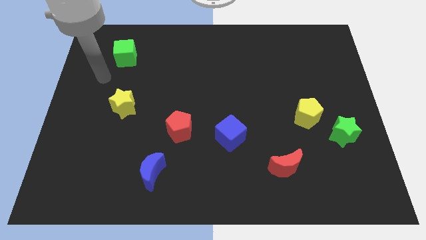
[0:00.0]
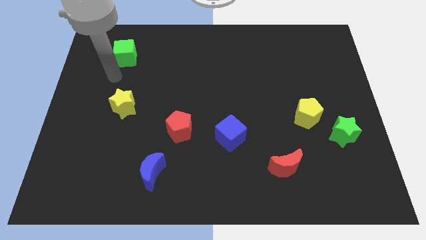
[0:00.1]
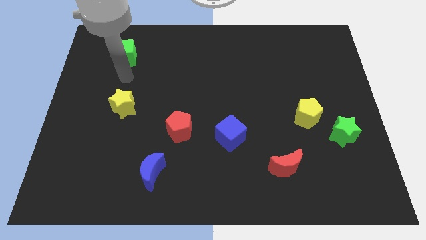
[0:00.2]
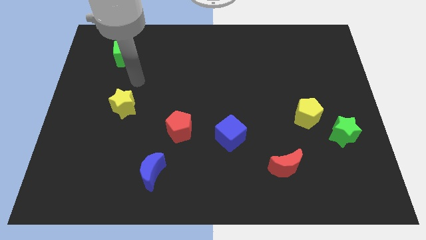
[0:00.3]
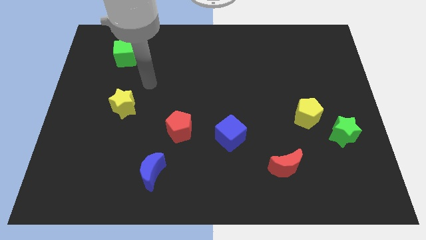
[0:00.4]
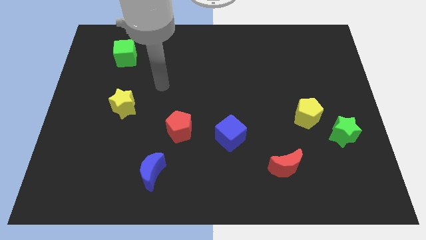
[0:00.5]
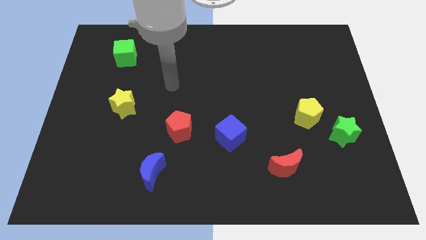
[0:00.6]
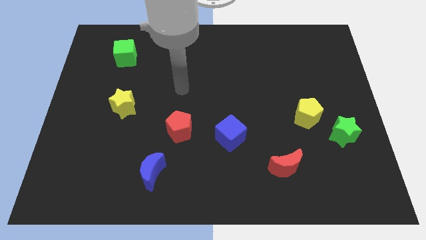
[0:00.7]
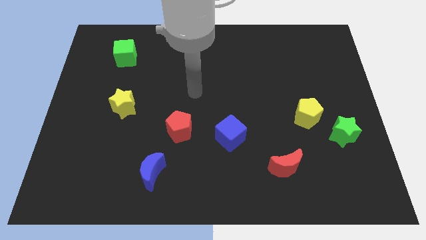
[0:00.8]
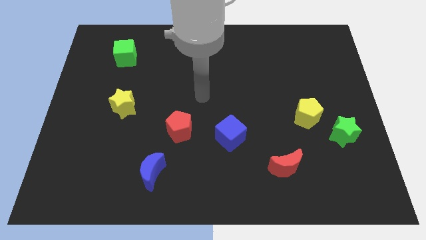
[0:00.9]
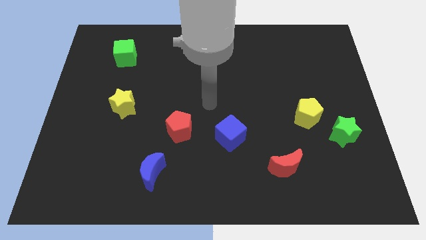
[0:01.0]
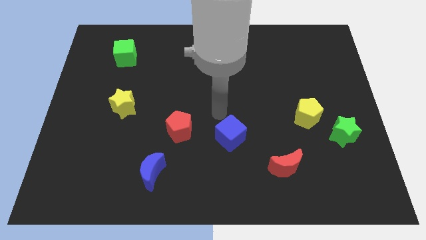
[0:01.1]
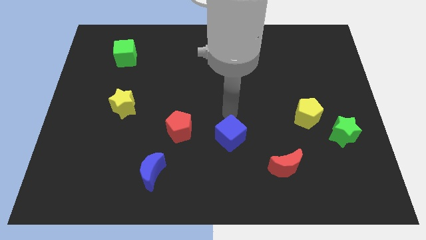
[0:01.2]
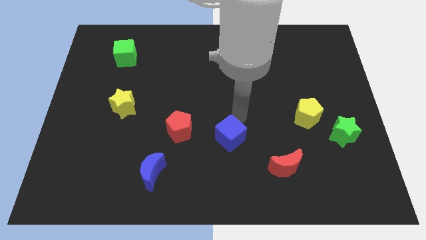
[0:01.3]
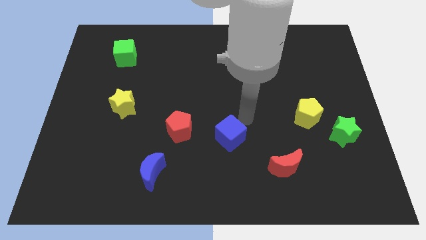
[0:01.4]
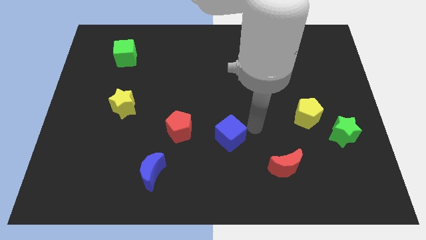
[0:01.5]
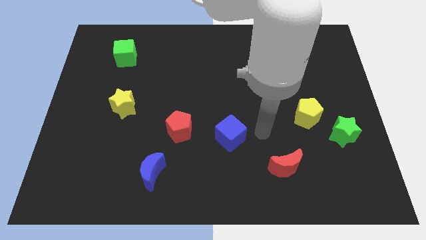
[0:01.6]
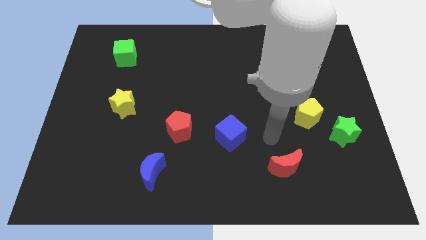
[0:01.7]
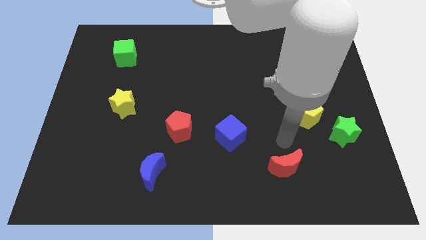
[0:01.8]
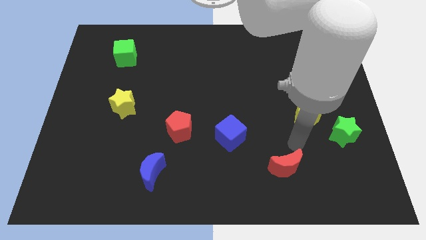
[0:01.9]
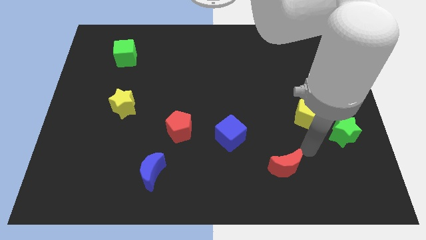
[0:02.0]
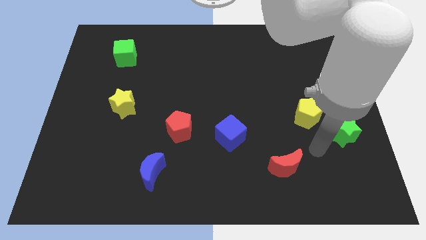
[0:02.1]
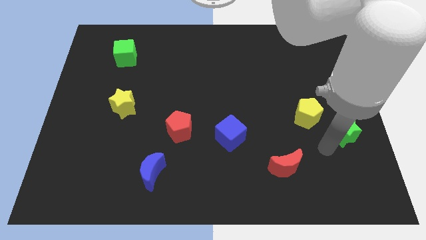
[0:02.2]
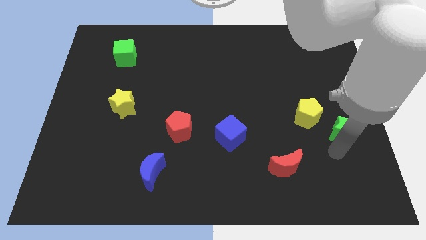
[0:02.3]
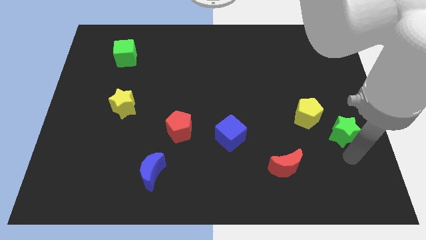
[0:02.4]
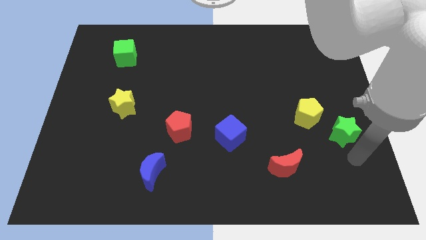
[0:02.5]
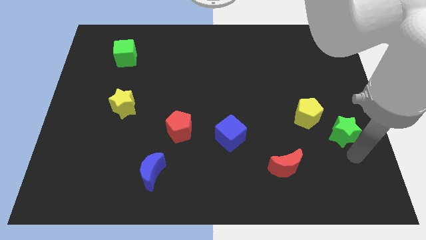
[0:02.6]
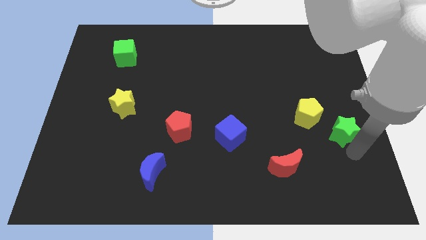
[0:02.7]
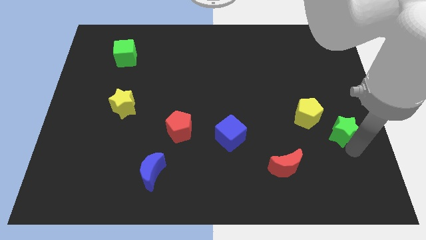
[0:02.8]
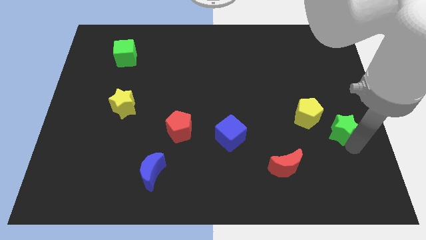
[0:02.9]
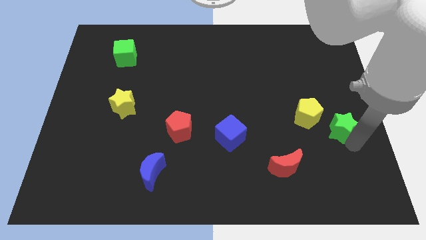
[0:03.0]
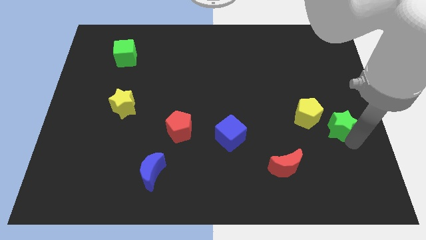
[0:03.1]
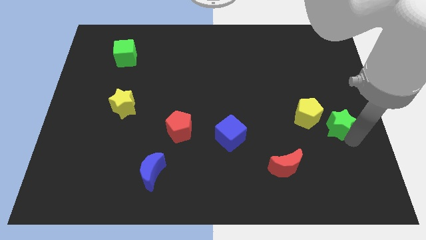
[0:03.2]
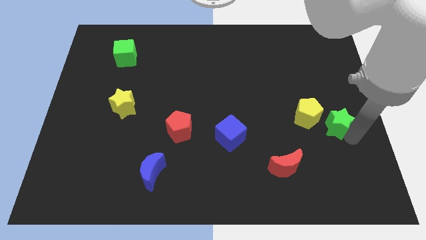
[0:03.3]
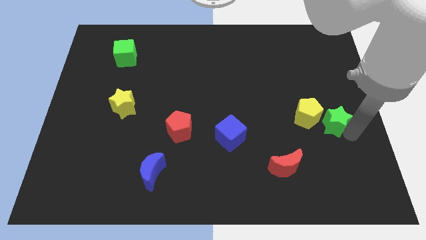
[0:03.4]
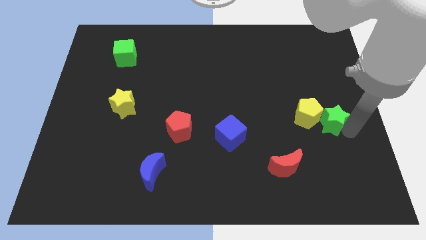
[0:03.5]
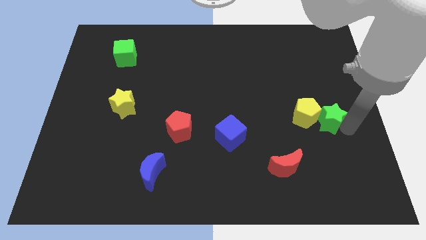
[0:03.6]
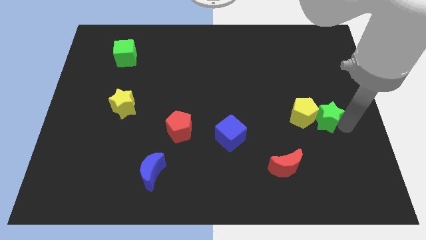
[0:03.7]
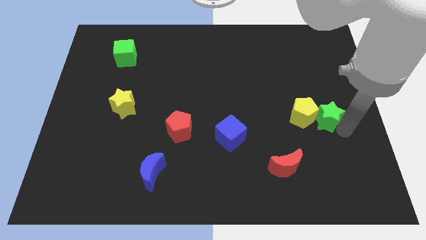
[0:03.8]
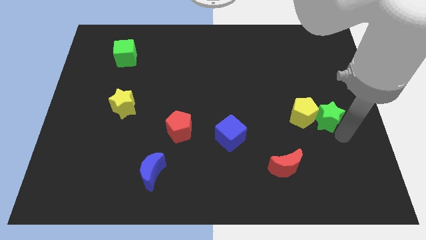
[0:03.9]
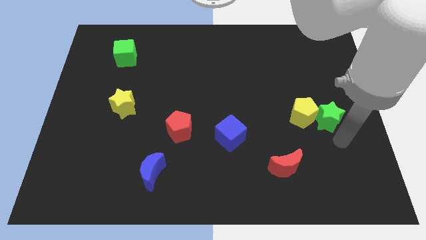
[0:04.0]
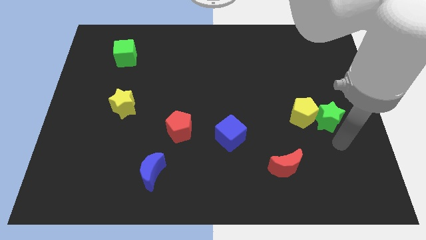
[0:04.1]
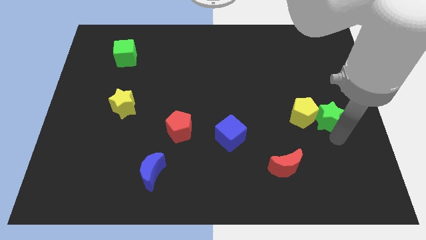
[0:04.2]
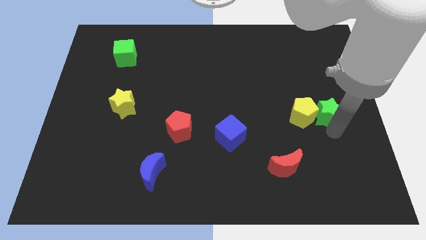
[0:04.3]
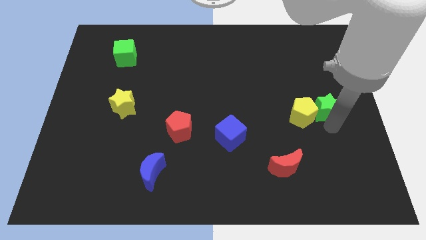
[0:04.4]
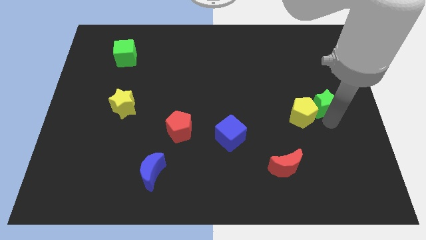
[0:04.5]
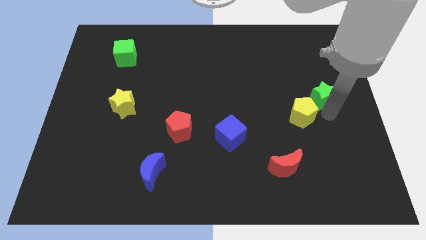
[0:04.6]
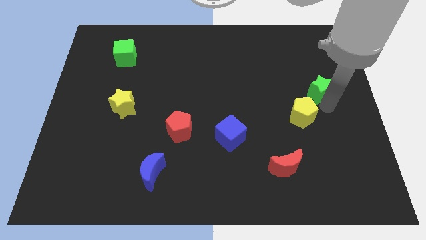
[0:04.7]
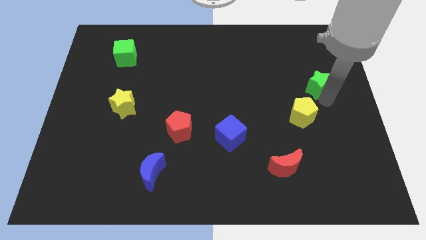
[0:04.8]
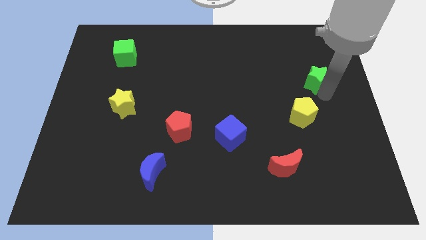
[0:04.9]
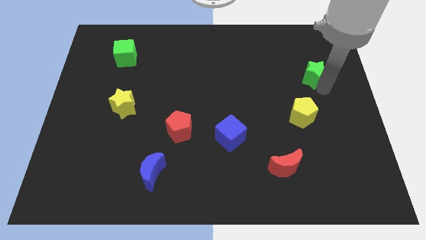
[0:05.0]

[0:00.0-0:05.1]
push the green star above the yellow pentagon

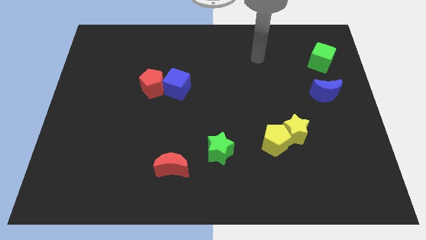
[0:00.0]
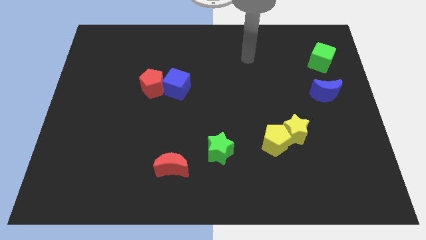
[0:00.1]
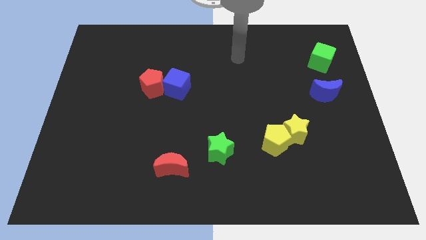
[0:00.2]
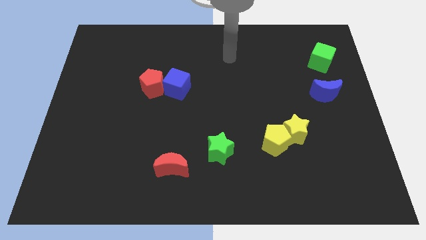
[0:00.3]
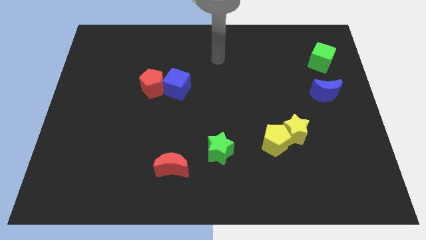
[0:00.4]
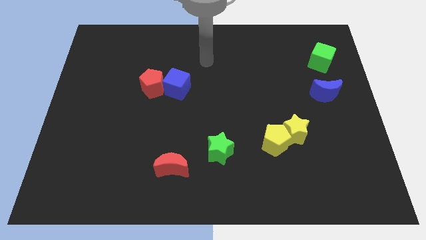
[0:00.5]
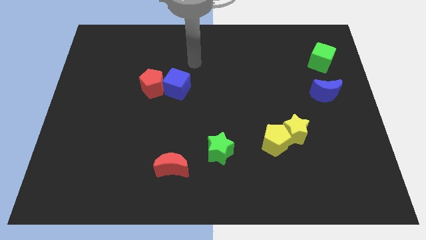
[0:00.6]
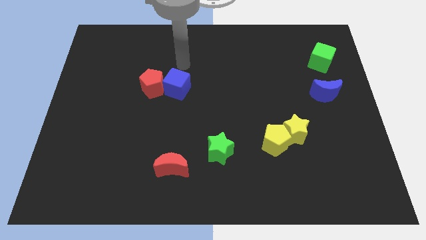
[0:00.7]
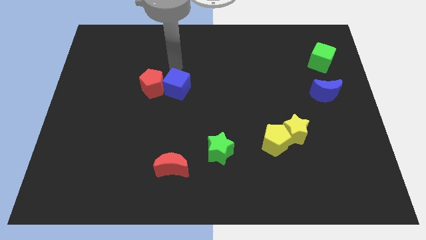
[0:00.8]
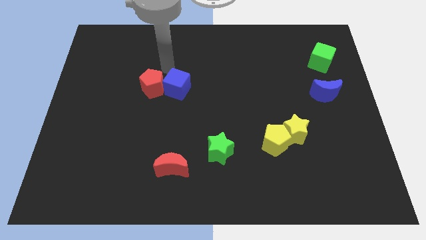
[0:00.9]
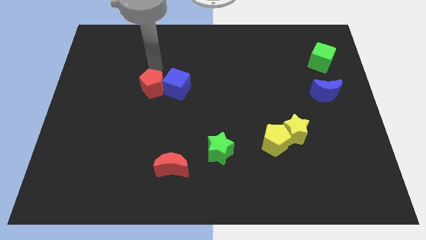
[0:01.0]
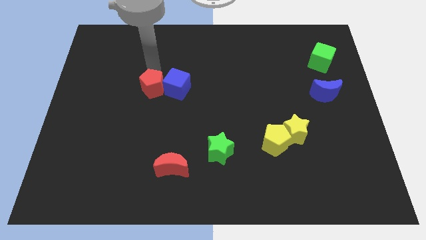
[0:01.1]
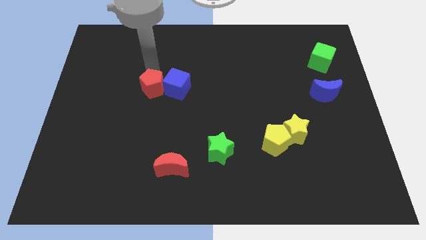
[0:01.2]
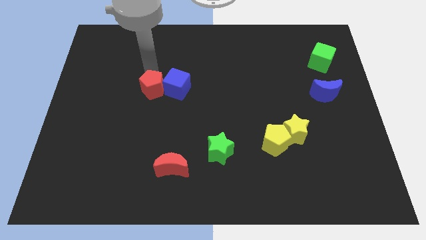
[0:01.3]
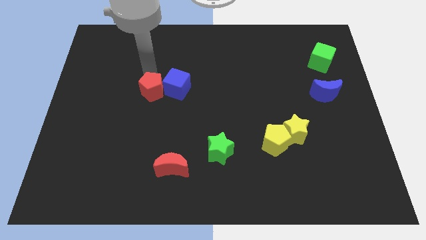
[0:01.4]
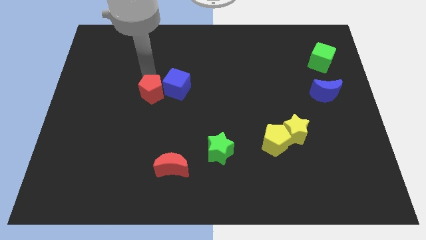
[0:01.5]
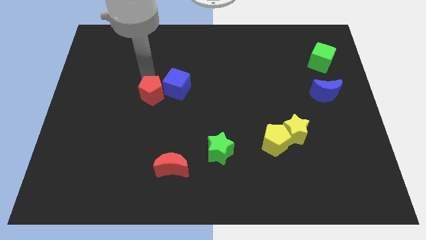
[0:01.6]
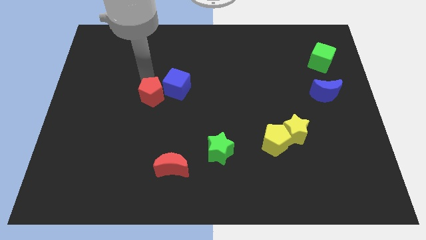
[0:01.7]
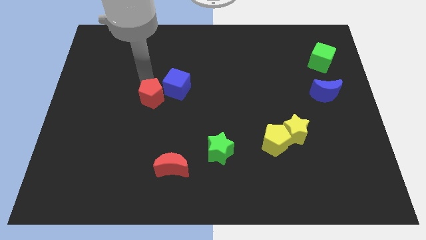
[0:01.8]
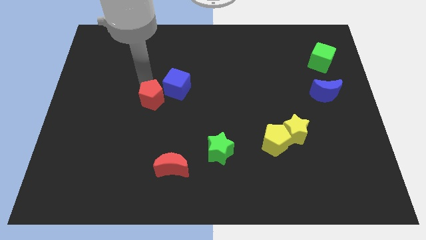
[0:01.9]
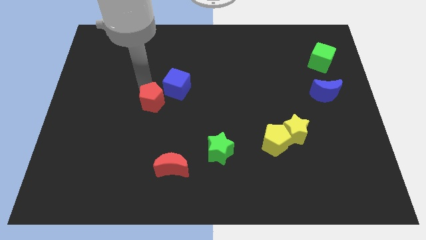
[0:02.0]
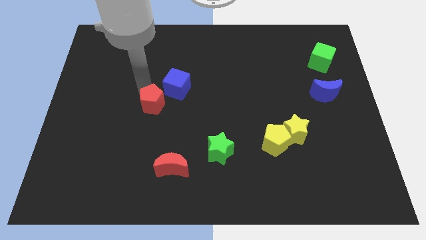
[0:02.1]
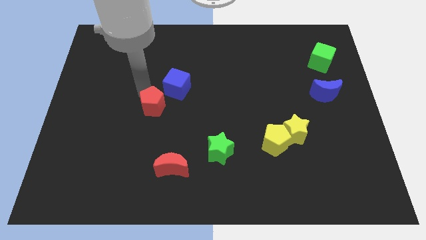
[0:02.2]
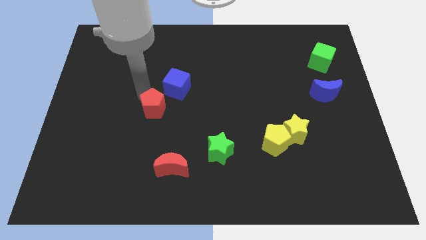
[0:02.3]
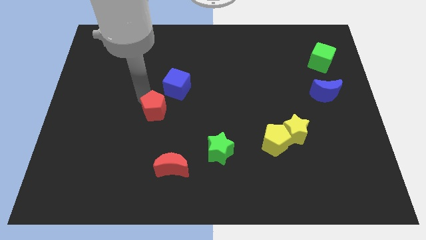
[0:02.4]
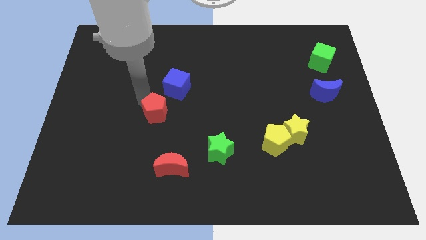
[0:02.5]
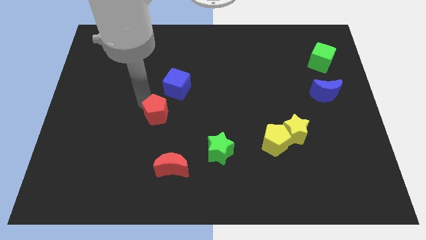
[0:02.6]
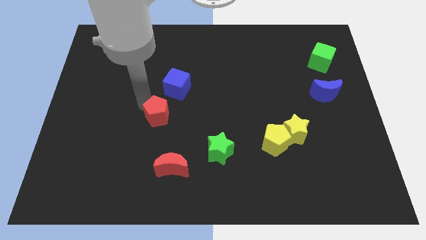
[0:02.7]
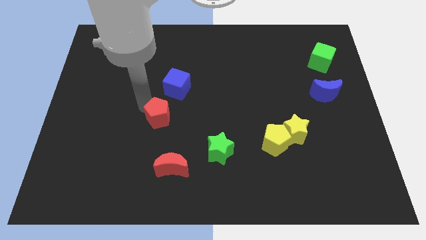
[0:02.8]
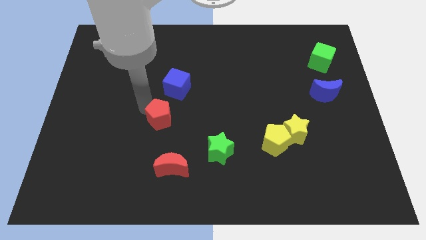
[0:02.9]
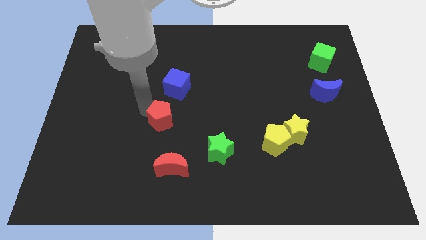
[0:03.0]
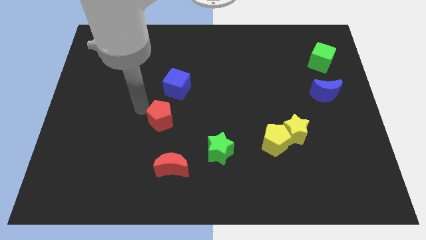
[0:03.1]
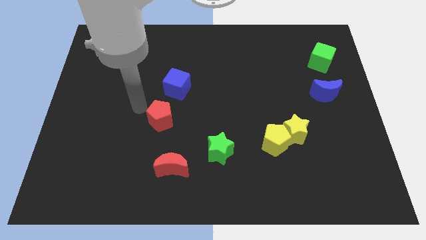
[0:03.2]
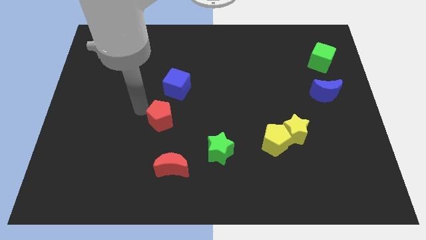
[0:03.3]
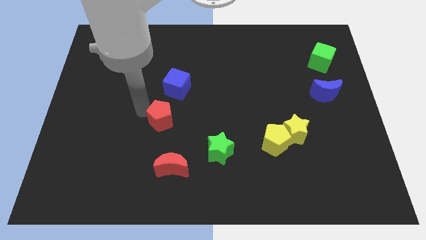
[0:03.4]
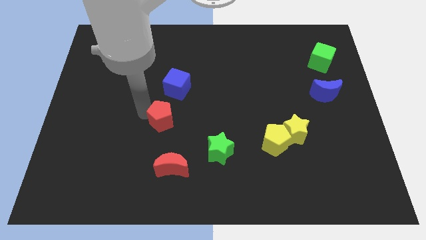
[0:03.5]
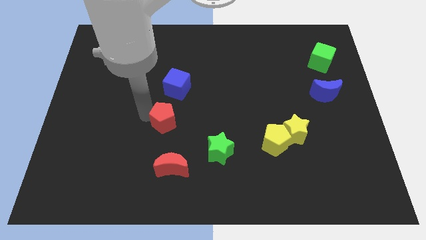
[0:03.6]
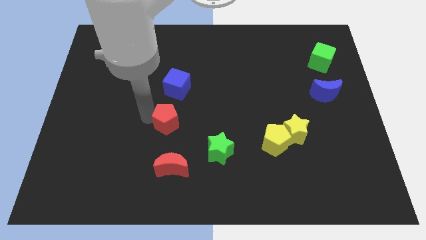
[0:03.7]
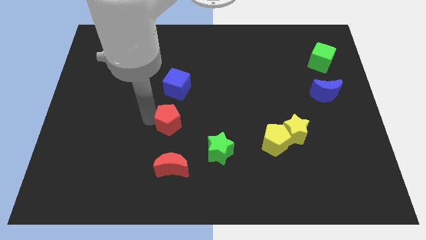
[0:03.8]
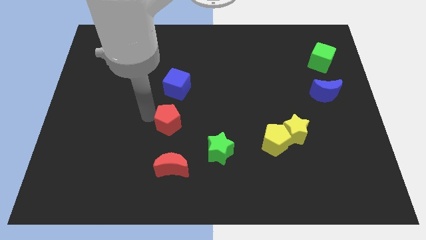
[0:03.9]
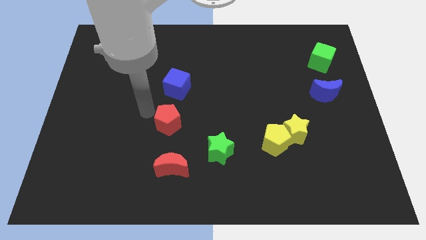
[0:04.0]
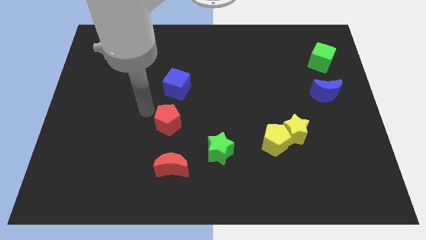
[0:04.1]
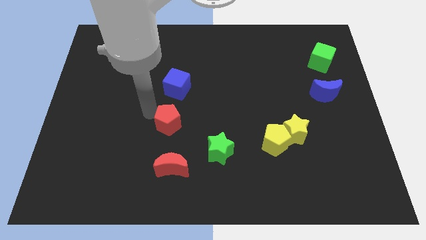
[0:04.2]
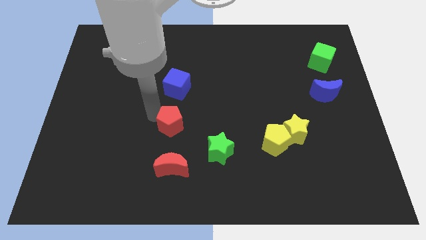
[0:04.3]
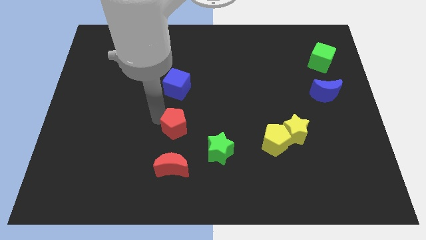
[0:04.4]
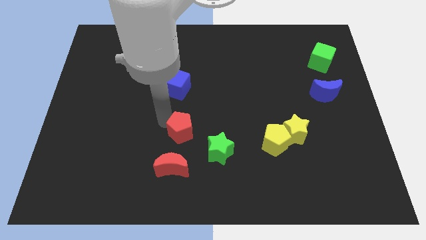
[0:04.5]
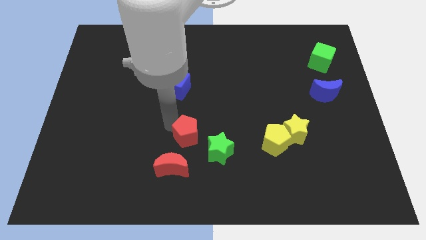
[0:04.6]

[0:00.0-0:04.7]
slide the red pentagon to the top right of the red moon
